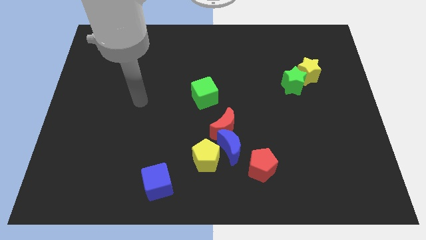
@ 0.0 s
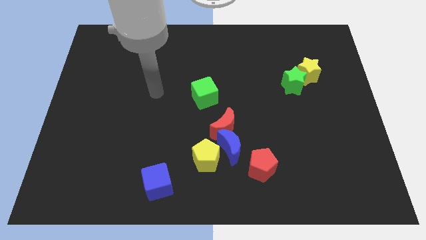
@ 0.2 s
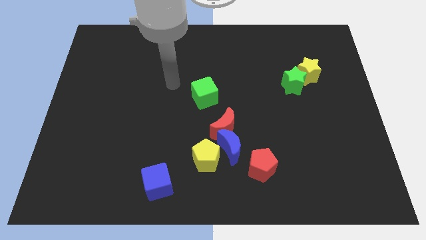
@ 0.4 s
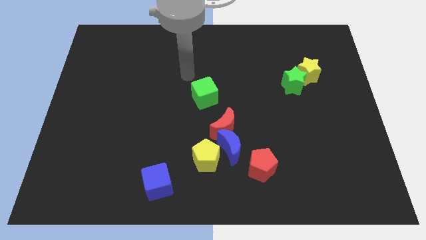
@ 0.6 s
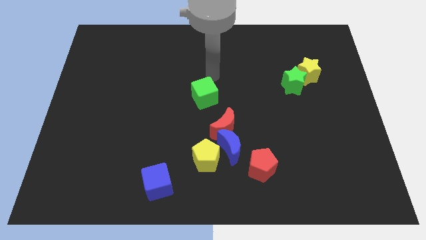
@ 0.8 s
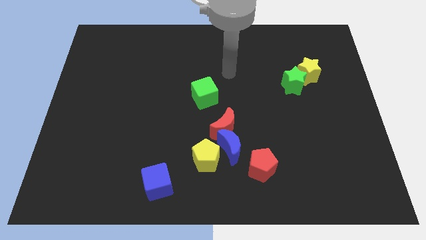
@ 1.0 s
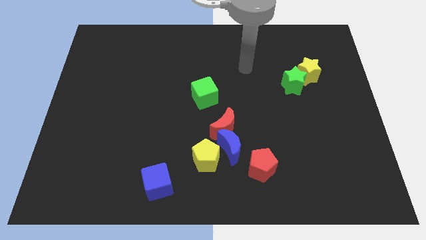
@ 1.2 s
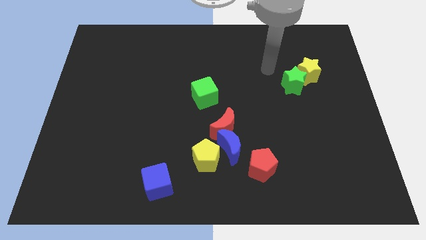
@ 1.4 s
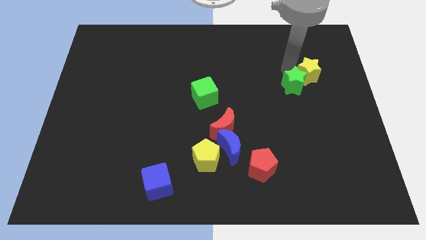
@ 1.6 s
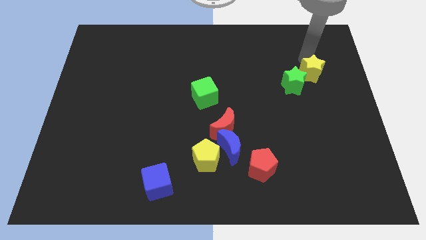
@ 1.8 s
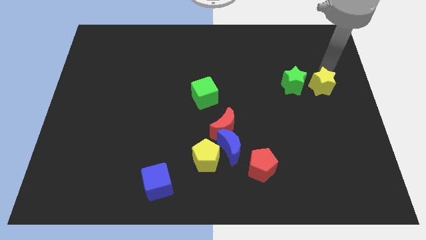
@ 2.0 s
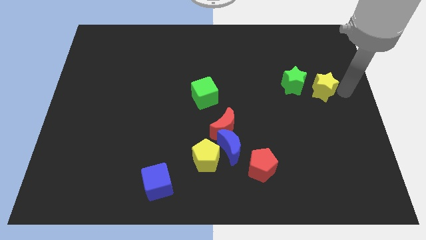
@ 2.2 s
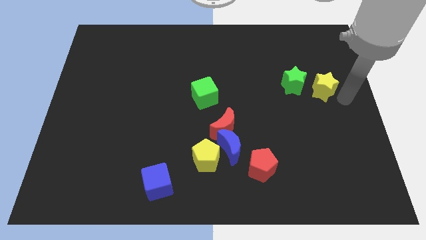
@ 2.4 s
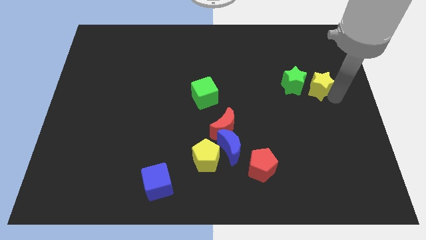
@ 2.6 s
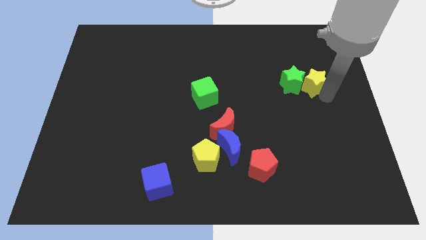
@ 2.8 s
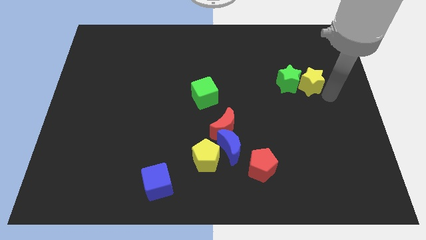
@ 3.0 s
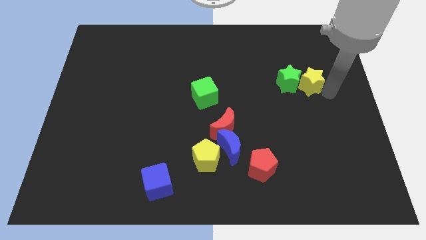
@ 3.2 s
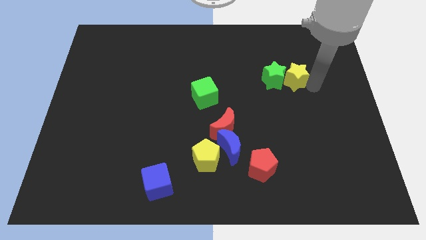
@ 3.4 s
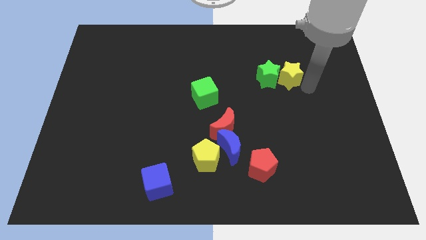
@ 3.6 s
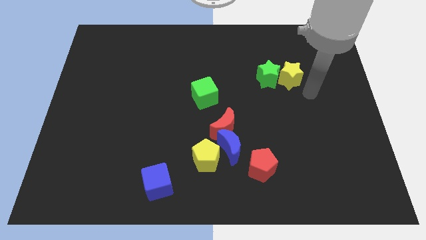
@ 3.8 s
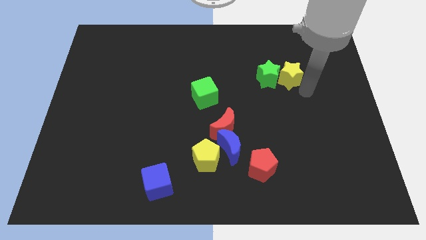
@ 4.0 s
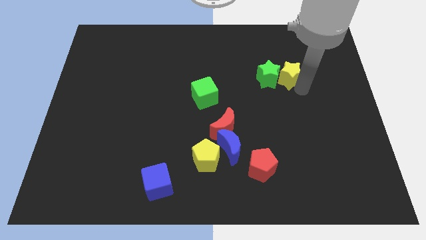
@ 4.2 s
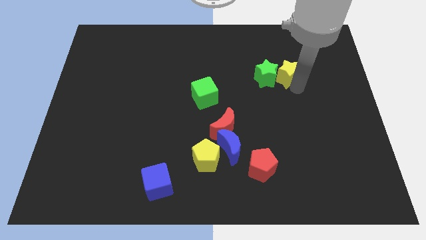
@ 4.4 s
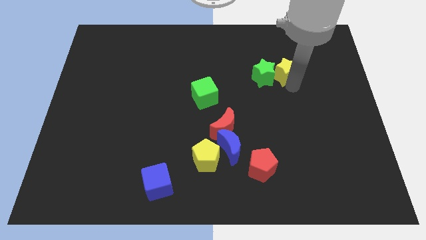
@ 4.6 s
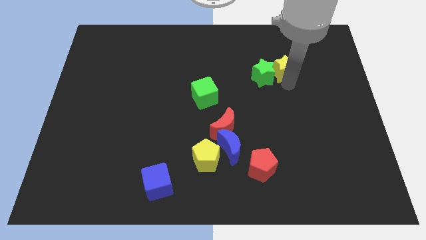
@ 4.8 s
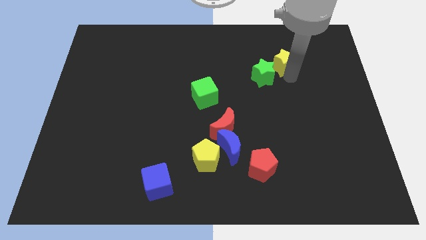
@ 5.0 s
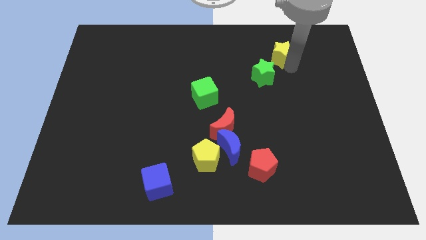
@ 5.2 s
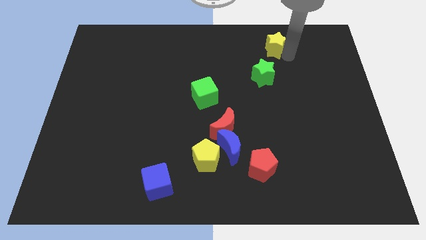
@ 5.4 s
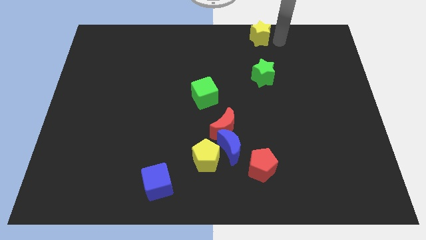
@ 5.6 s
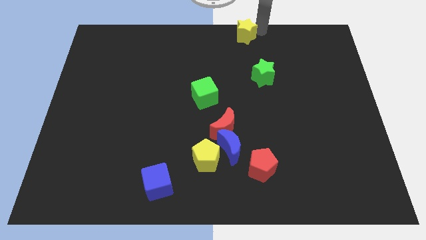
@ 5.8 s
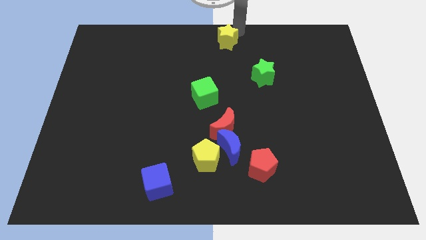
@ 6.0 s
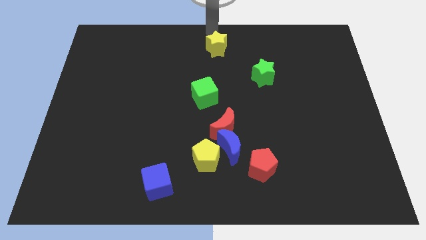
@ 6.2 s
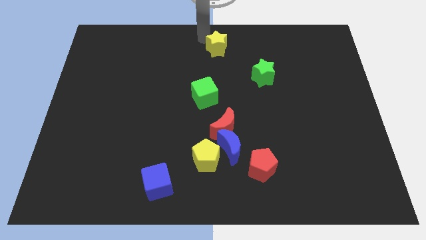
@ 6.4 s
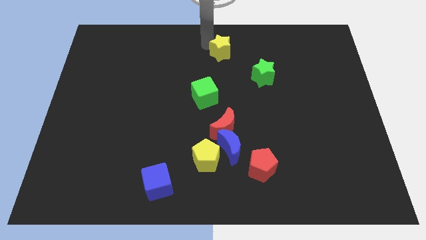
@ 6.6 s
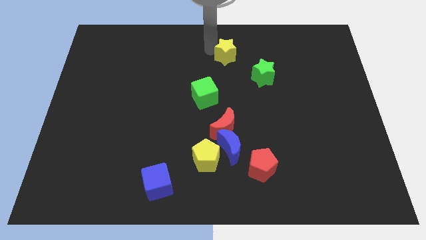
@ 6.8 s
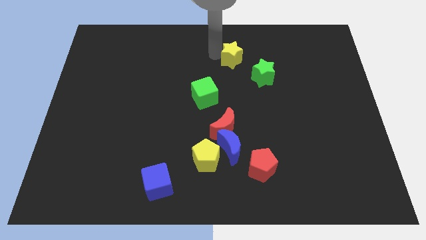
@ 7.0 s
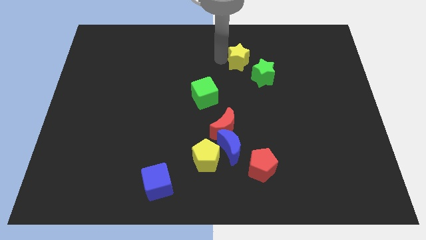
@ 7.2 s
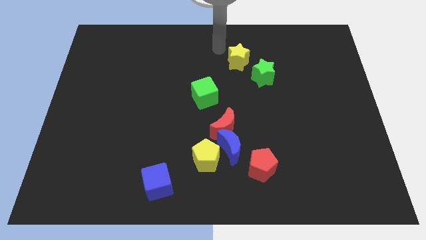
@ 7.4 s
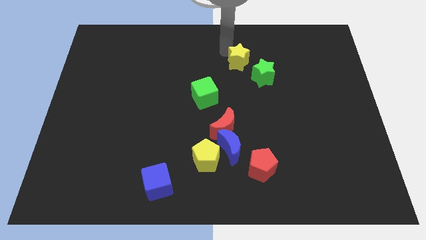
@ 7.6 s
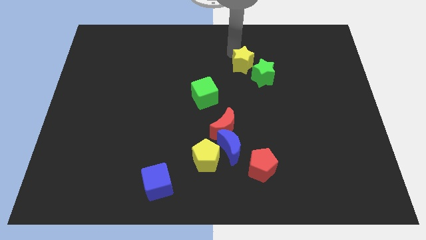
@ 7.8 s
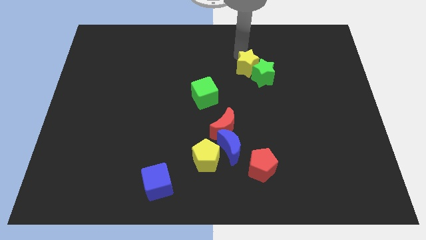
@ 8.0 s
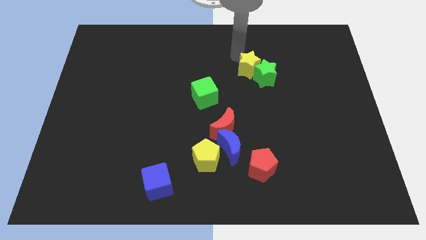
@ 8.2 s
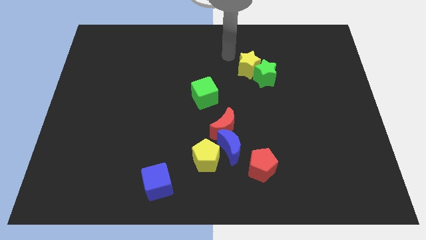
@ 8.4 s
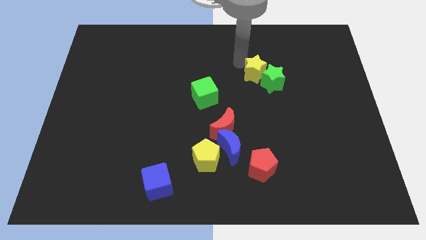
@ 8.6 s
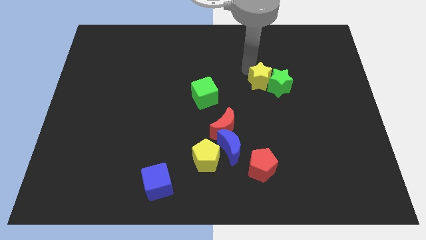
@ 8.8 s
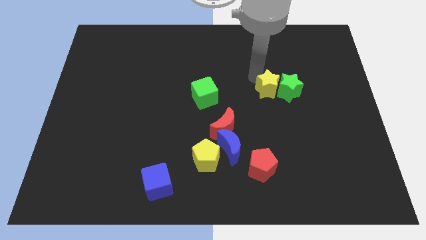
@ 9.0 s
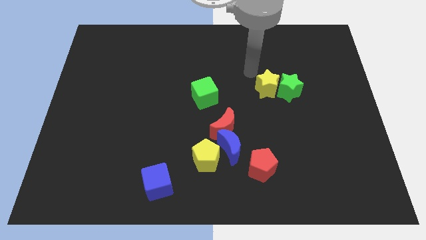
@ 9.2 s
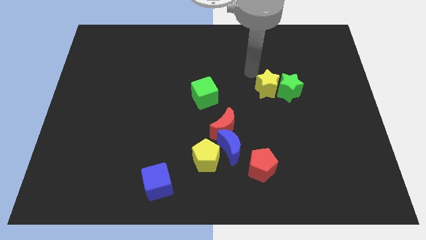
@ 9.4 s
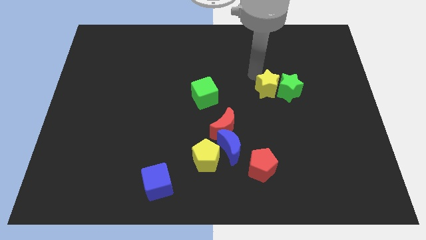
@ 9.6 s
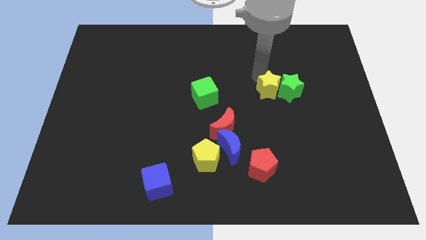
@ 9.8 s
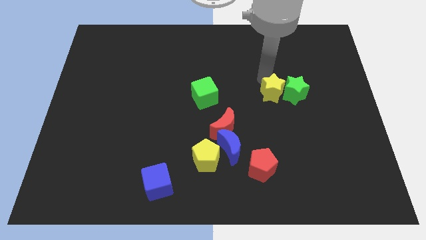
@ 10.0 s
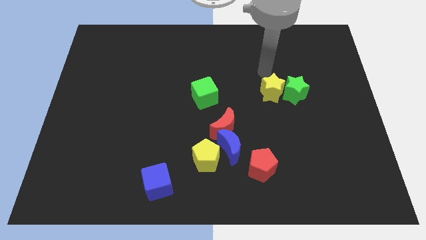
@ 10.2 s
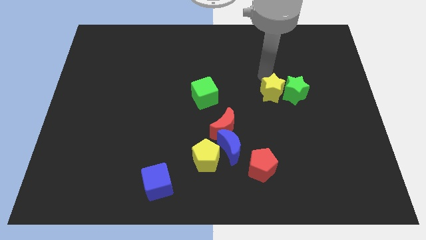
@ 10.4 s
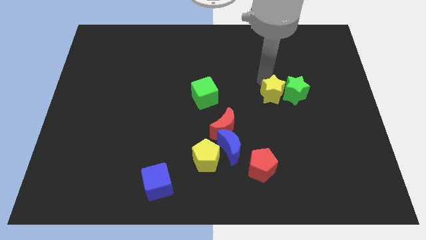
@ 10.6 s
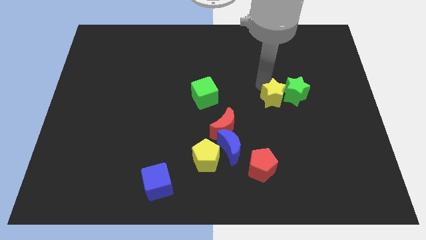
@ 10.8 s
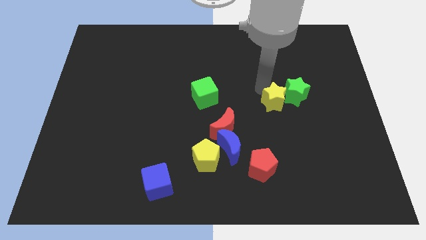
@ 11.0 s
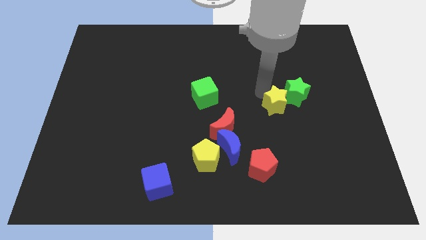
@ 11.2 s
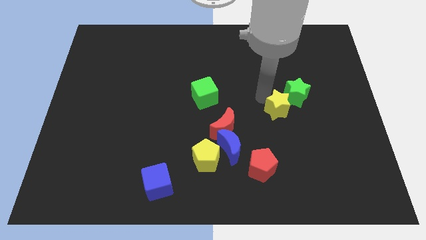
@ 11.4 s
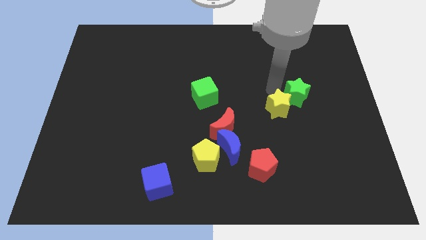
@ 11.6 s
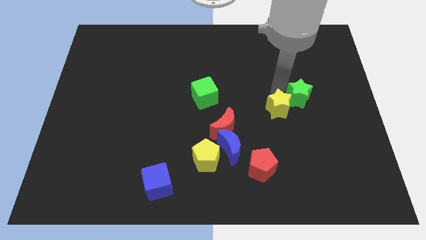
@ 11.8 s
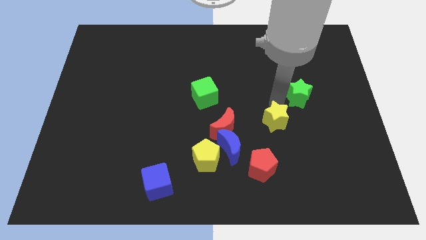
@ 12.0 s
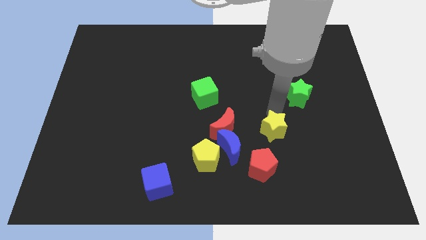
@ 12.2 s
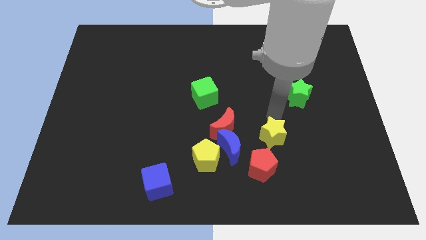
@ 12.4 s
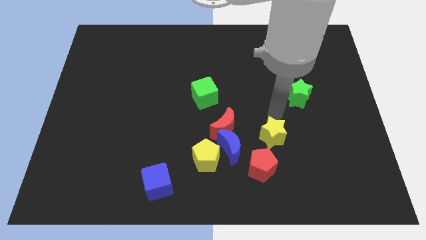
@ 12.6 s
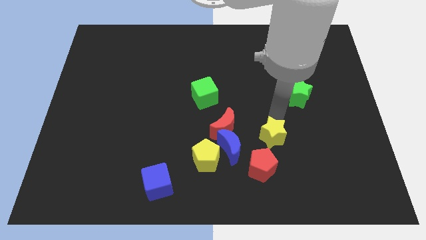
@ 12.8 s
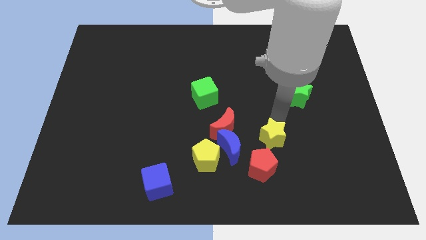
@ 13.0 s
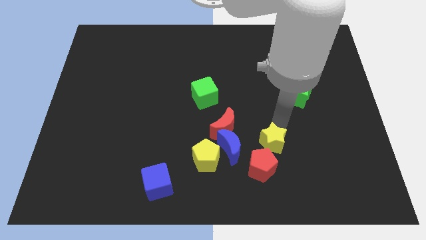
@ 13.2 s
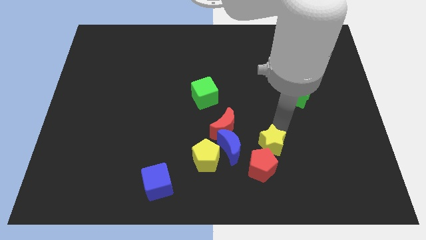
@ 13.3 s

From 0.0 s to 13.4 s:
push the yellow star towards the red pentagon
